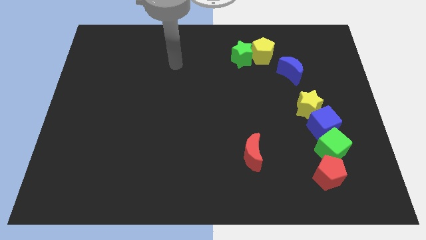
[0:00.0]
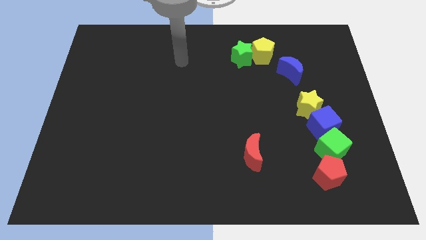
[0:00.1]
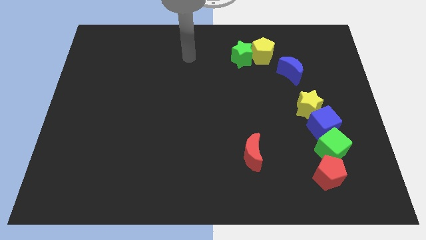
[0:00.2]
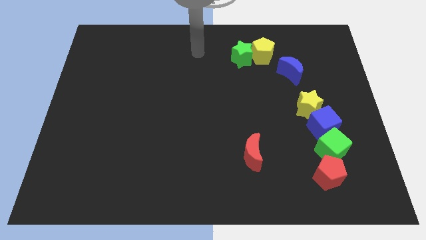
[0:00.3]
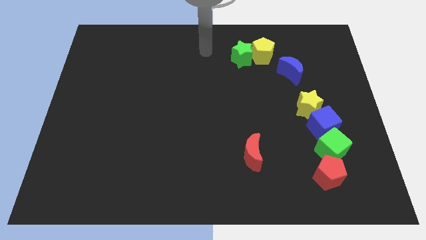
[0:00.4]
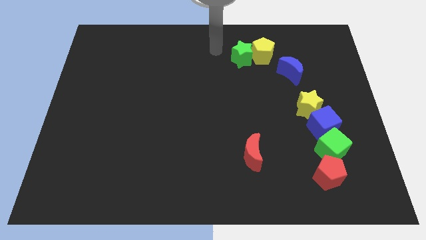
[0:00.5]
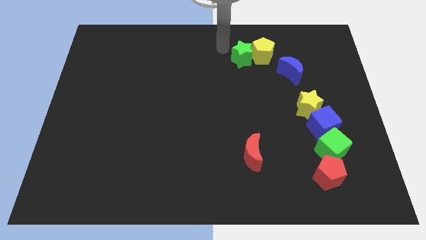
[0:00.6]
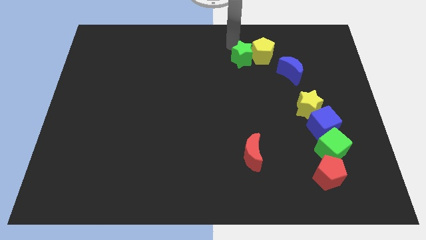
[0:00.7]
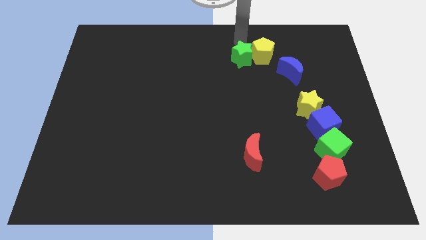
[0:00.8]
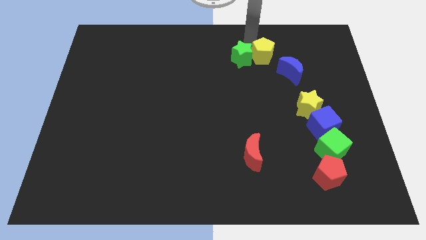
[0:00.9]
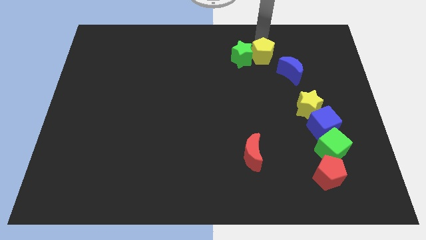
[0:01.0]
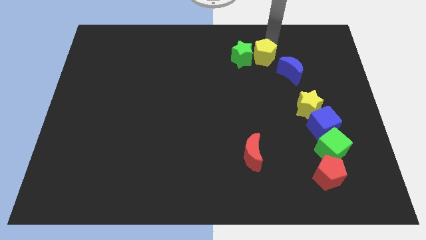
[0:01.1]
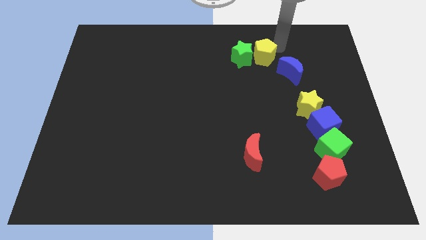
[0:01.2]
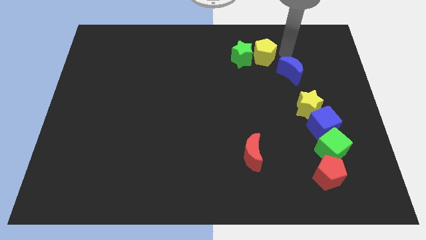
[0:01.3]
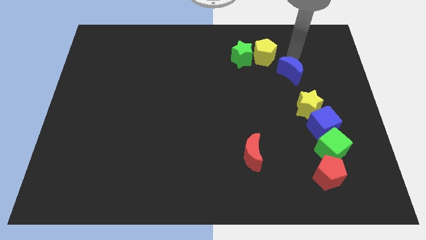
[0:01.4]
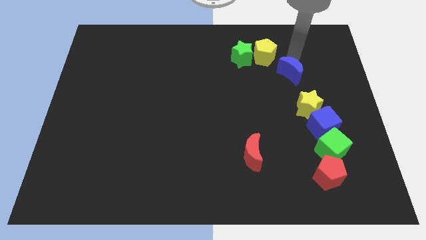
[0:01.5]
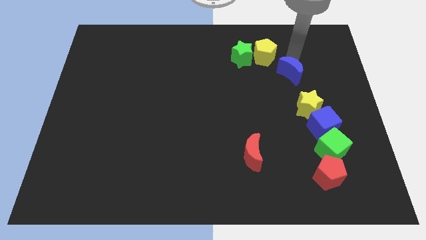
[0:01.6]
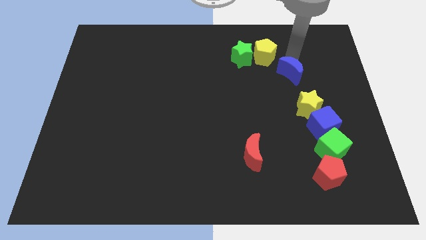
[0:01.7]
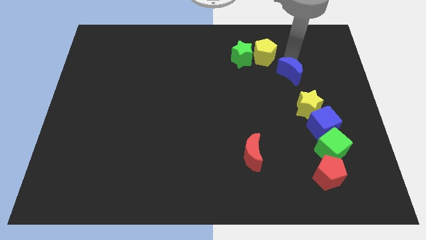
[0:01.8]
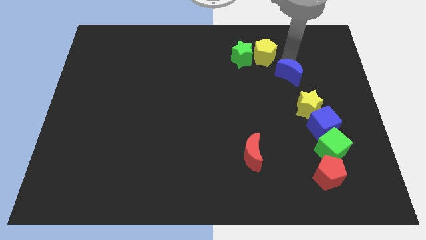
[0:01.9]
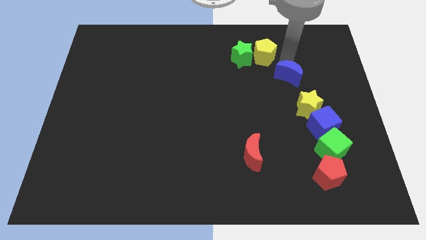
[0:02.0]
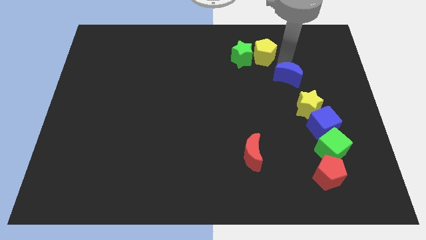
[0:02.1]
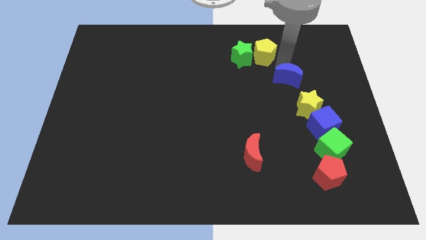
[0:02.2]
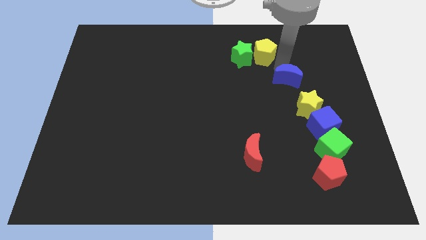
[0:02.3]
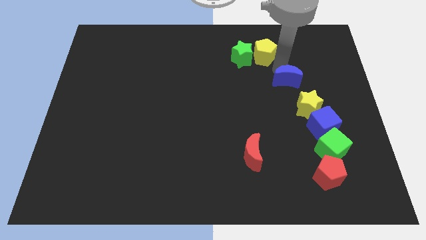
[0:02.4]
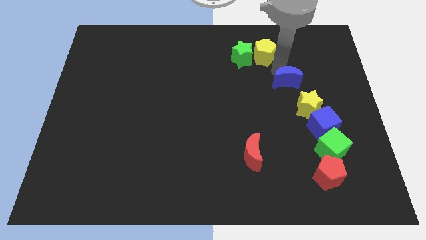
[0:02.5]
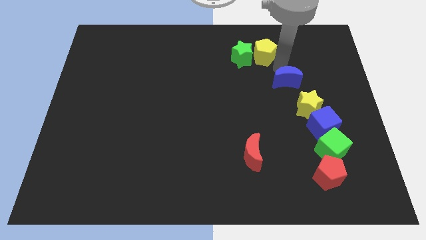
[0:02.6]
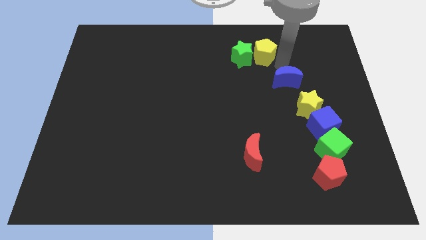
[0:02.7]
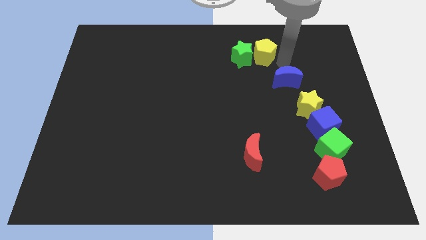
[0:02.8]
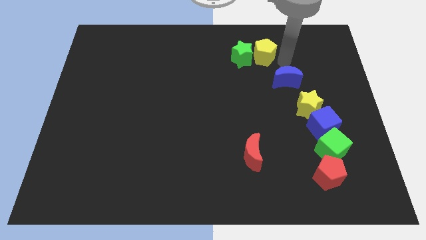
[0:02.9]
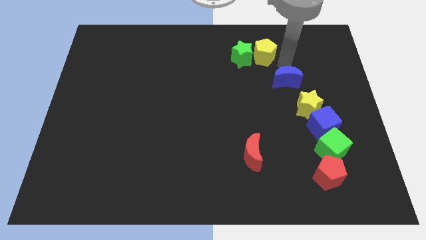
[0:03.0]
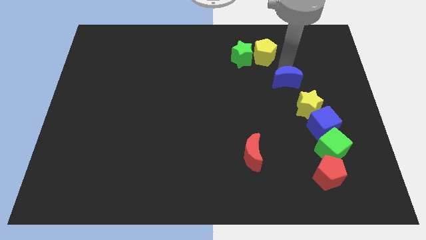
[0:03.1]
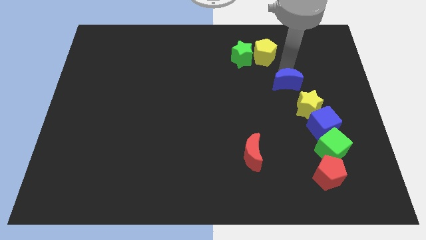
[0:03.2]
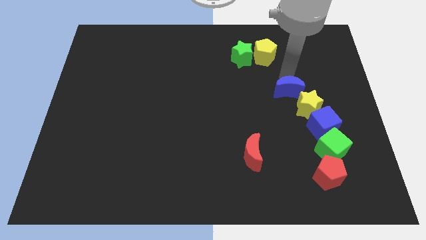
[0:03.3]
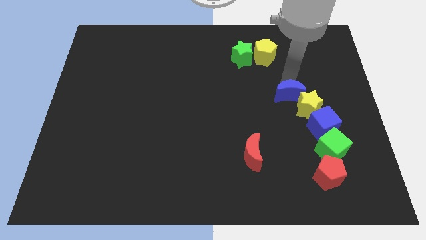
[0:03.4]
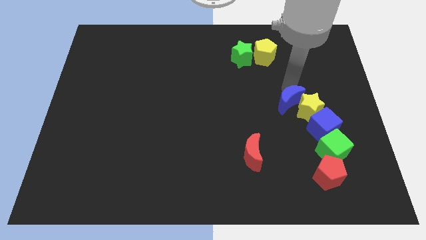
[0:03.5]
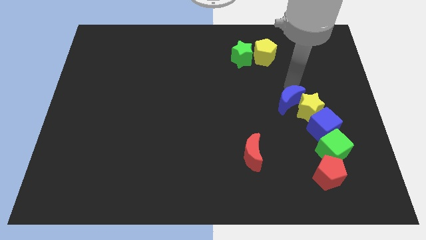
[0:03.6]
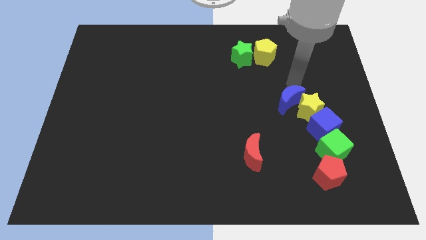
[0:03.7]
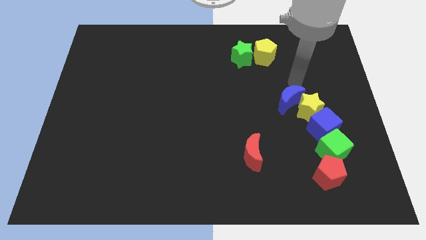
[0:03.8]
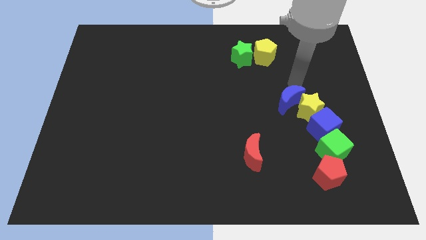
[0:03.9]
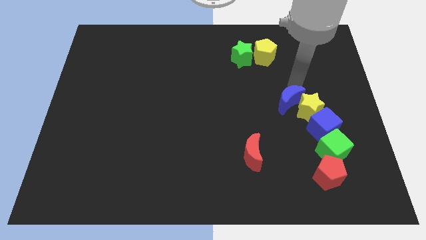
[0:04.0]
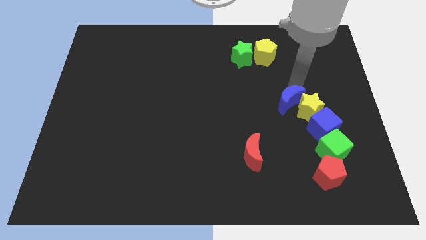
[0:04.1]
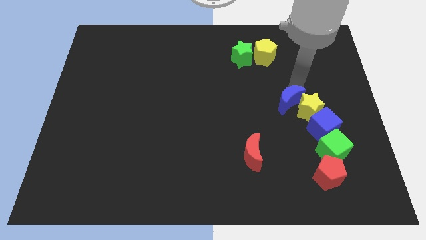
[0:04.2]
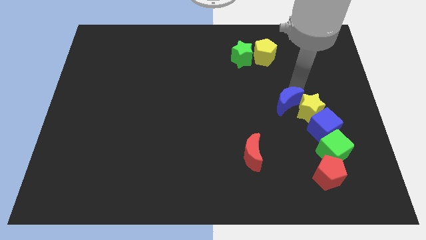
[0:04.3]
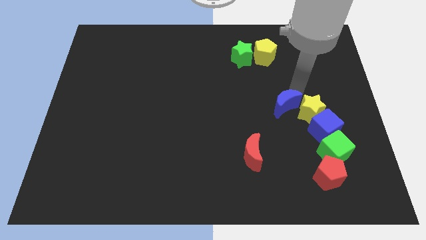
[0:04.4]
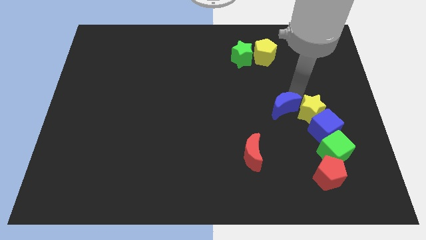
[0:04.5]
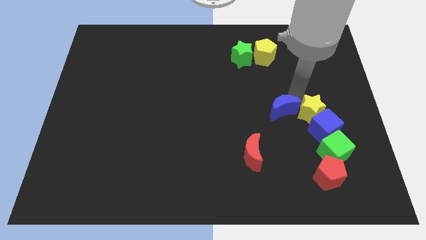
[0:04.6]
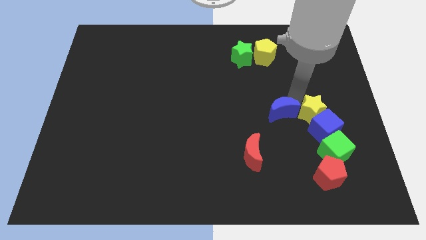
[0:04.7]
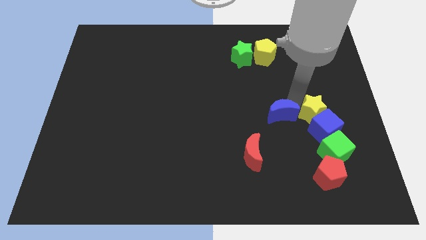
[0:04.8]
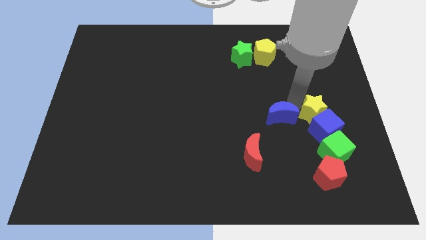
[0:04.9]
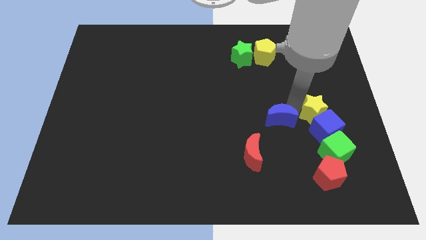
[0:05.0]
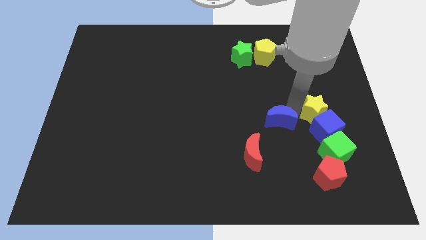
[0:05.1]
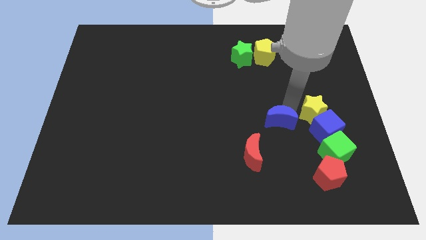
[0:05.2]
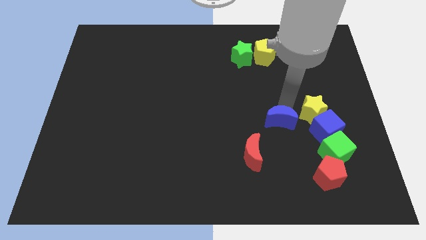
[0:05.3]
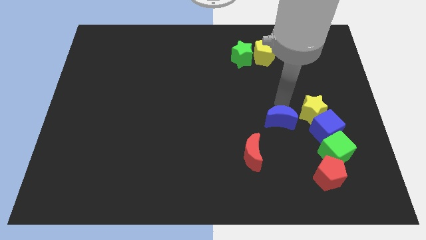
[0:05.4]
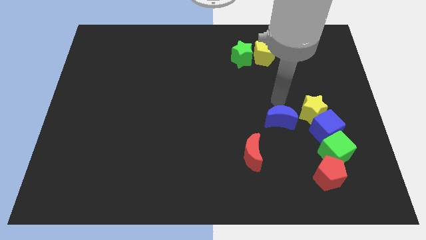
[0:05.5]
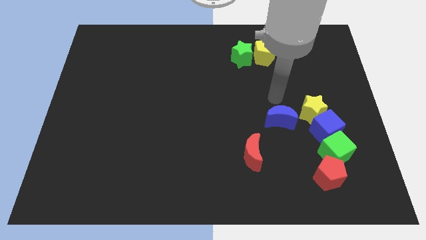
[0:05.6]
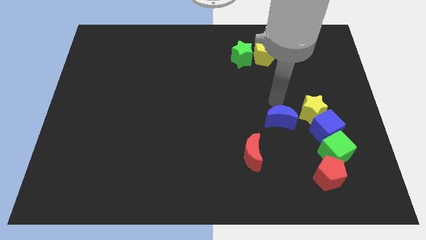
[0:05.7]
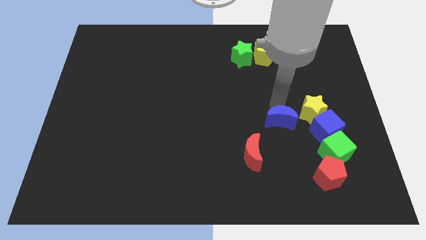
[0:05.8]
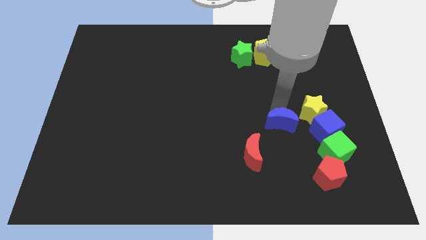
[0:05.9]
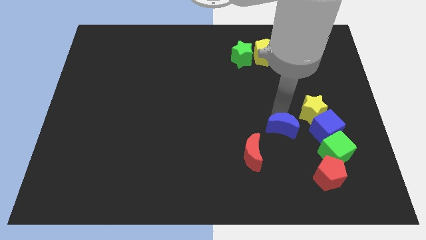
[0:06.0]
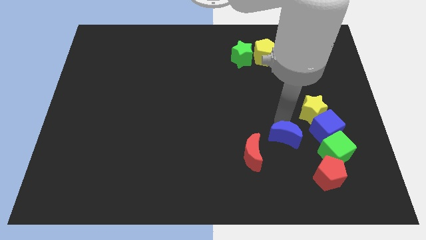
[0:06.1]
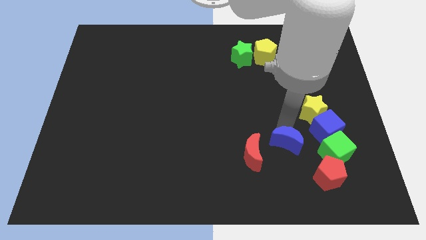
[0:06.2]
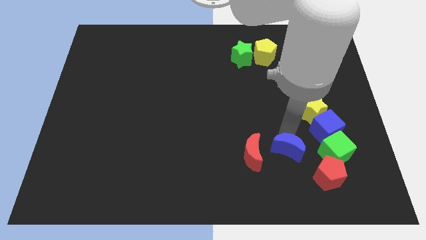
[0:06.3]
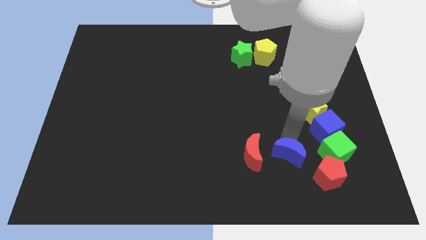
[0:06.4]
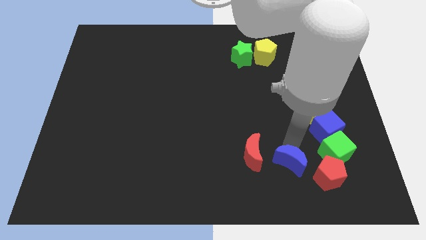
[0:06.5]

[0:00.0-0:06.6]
slide the blue moon to the left of the red pentagon
